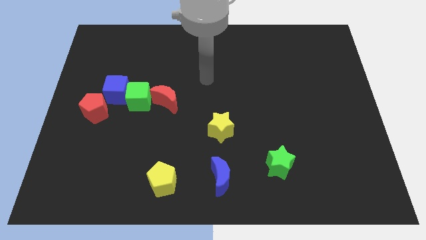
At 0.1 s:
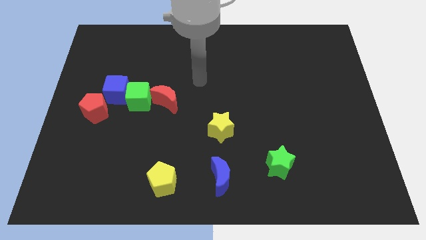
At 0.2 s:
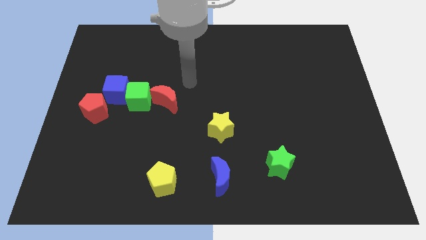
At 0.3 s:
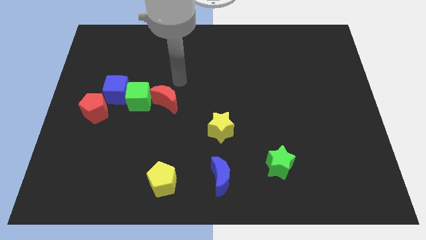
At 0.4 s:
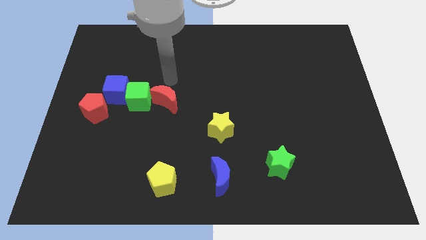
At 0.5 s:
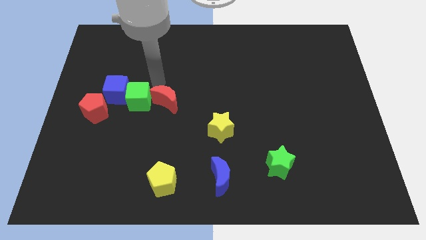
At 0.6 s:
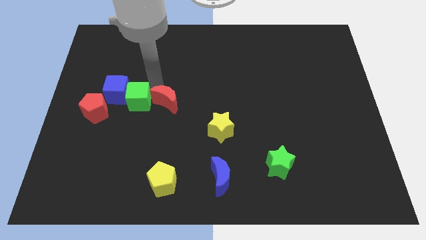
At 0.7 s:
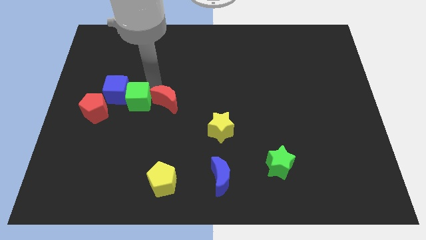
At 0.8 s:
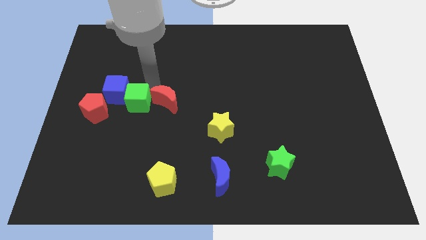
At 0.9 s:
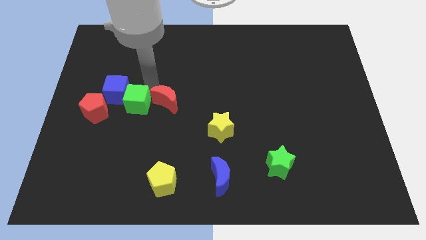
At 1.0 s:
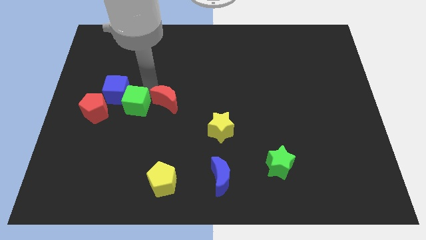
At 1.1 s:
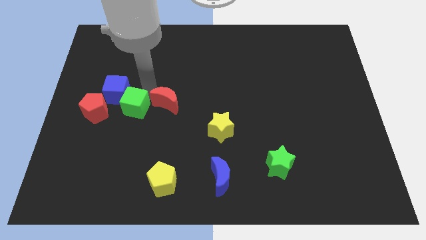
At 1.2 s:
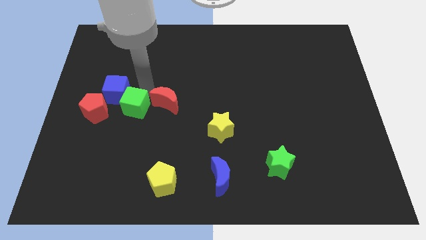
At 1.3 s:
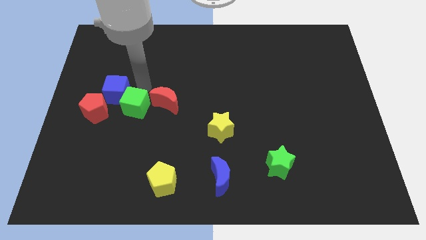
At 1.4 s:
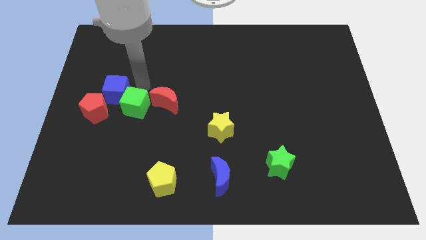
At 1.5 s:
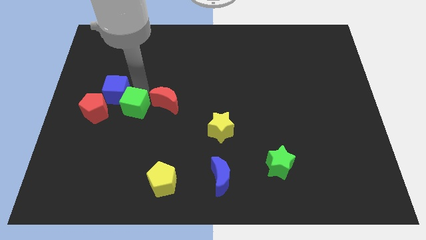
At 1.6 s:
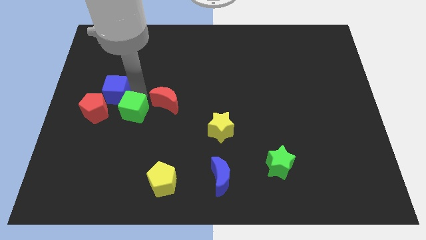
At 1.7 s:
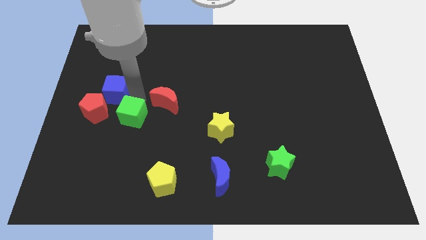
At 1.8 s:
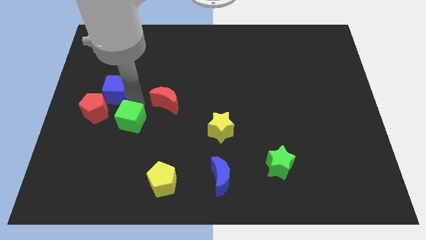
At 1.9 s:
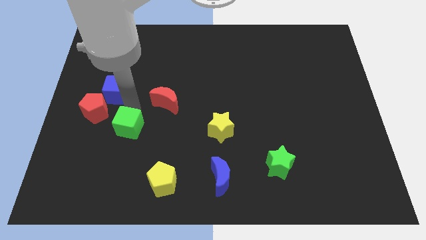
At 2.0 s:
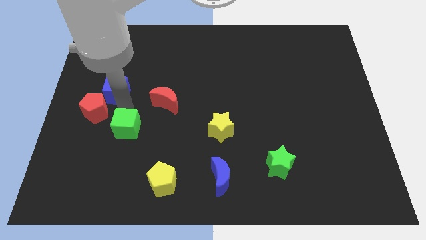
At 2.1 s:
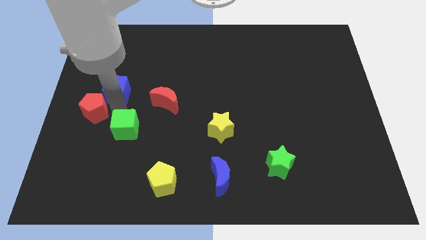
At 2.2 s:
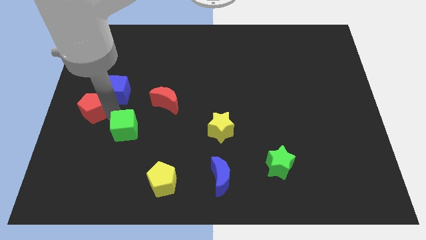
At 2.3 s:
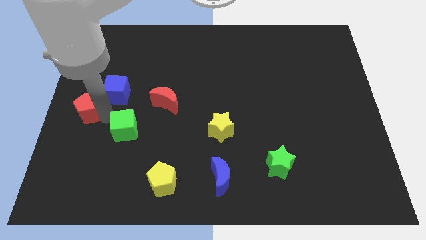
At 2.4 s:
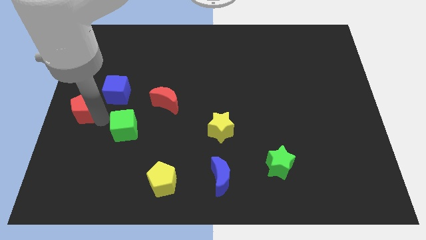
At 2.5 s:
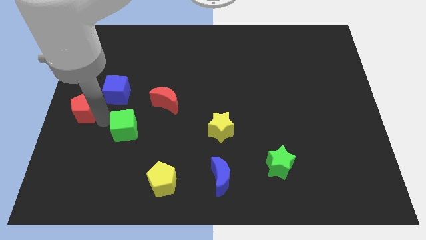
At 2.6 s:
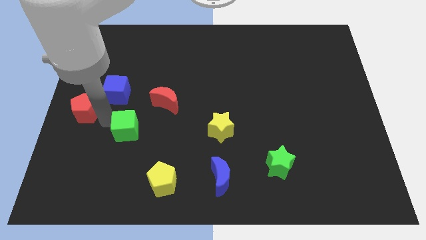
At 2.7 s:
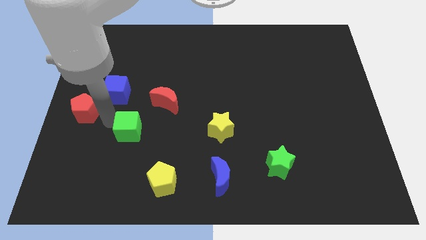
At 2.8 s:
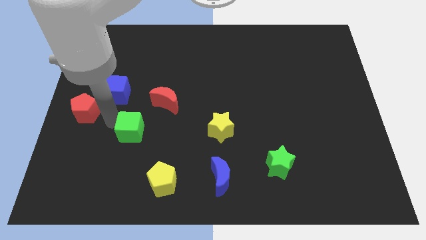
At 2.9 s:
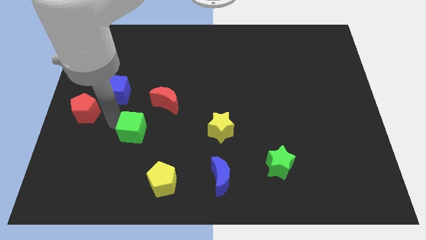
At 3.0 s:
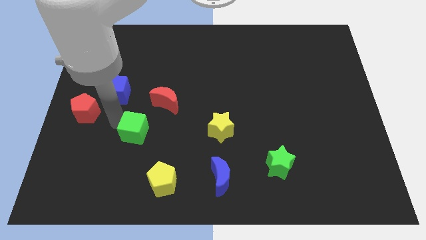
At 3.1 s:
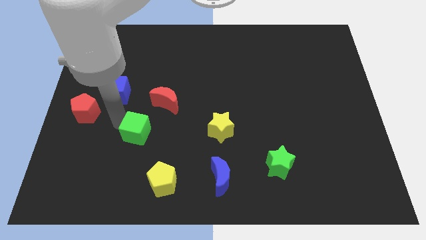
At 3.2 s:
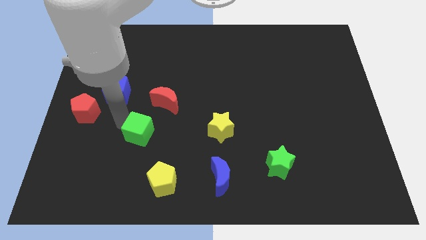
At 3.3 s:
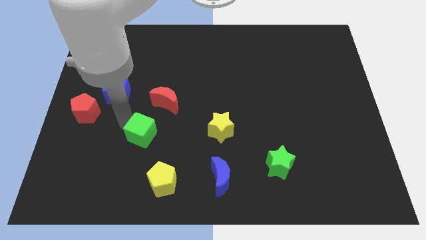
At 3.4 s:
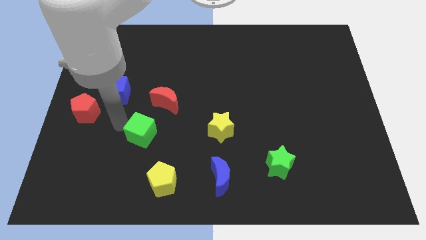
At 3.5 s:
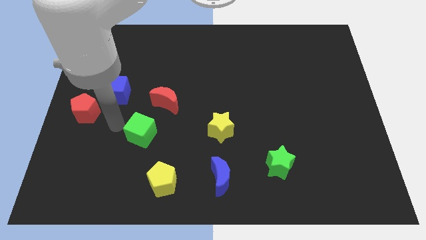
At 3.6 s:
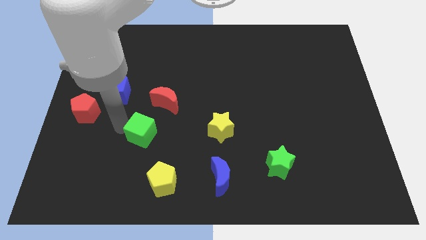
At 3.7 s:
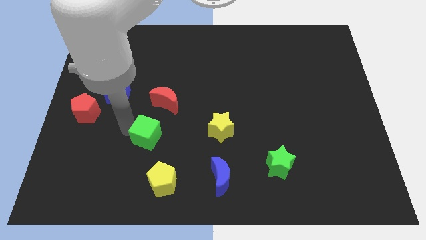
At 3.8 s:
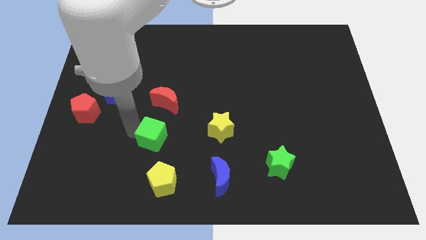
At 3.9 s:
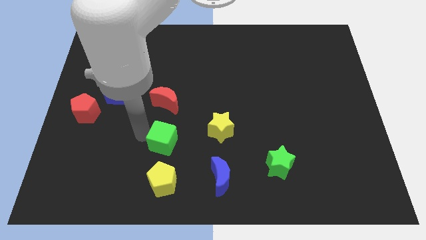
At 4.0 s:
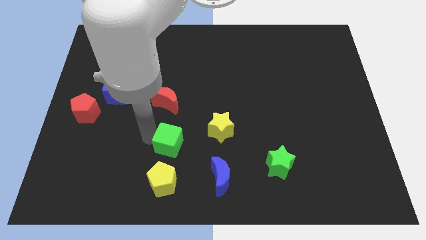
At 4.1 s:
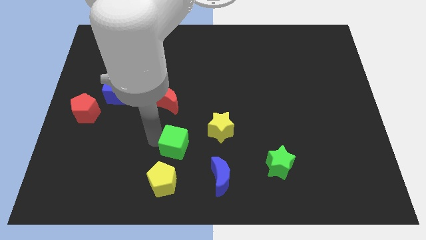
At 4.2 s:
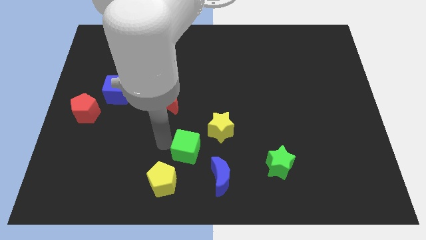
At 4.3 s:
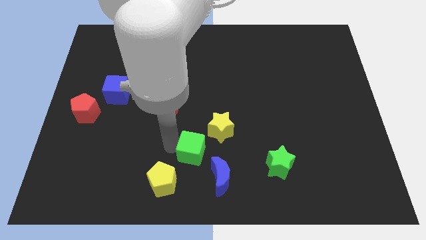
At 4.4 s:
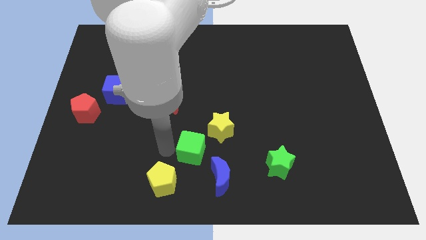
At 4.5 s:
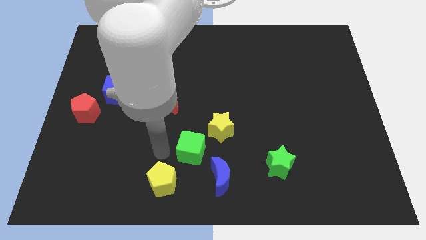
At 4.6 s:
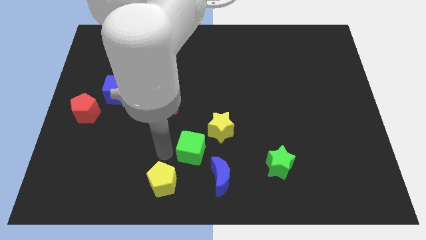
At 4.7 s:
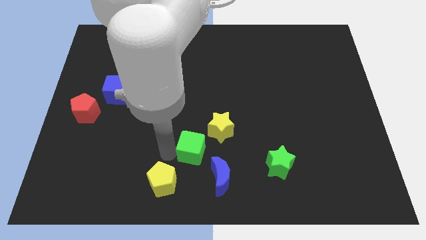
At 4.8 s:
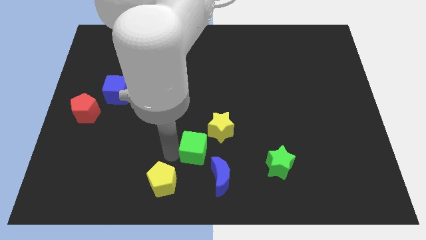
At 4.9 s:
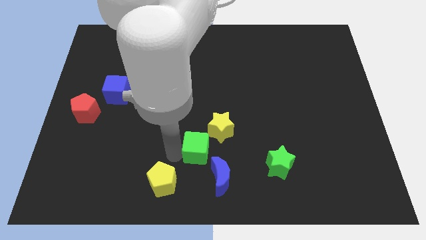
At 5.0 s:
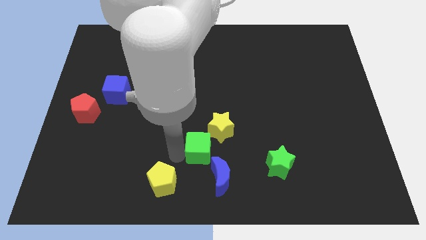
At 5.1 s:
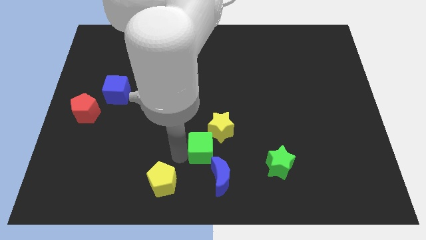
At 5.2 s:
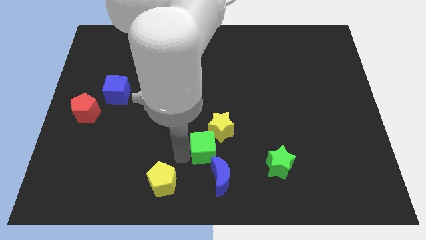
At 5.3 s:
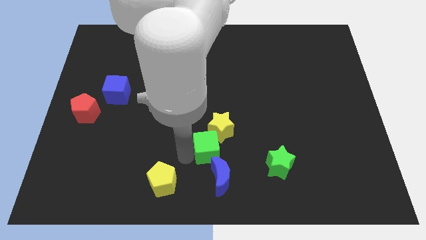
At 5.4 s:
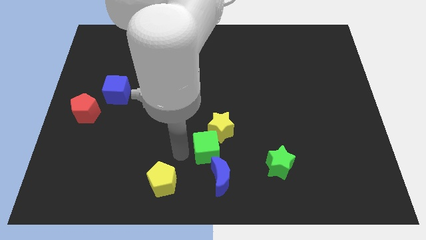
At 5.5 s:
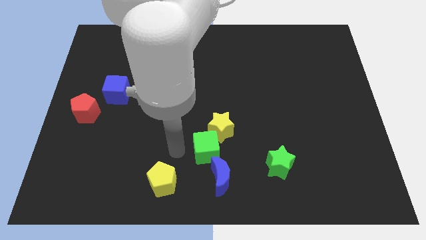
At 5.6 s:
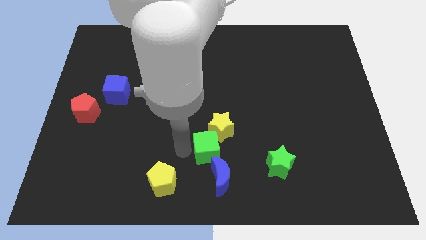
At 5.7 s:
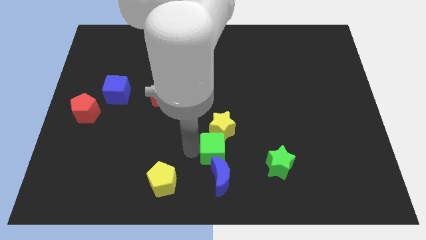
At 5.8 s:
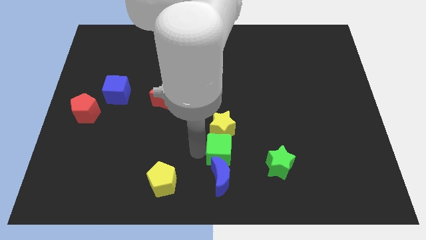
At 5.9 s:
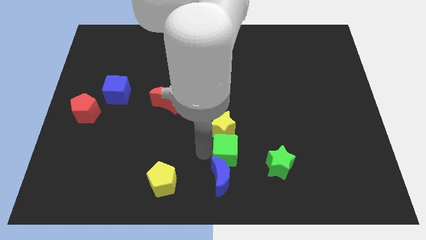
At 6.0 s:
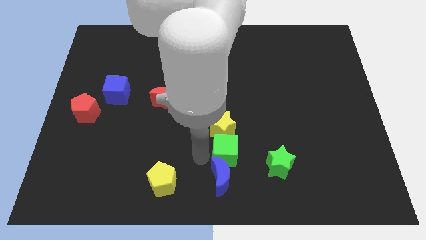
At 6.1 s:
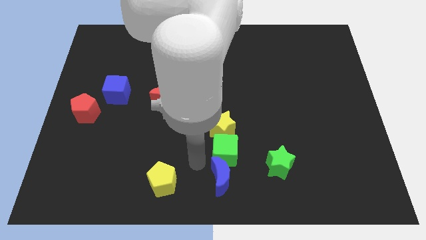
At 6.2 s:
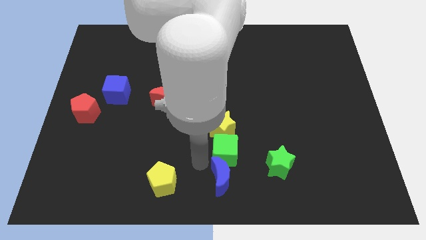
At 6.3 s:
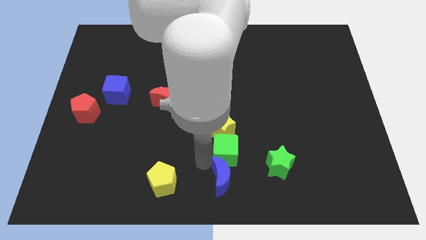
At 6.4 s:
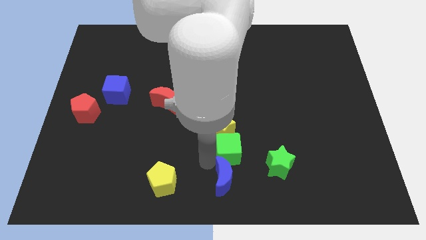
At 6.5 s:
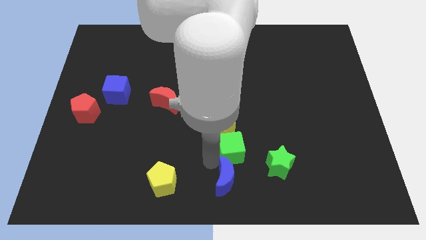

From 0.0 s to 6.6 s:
move the green cube diagonally up and to the left of the green star

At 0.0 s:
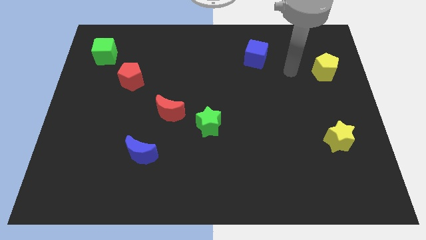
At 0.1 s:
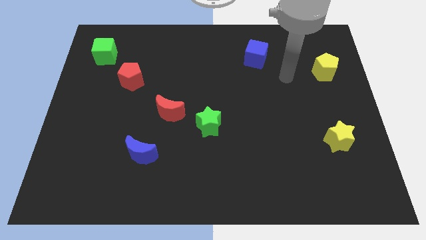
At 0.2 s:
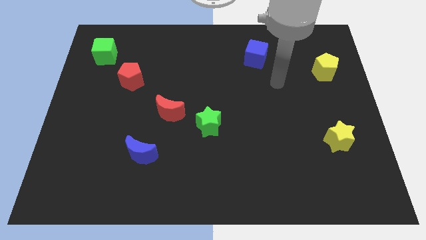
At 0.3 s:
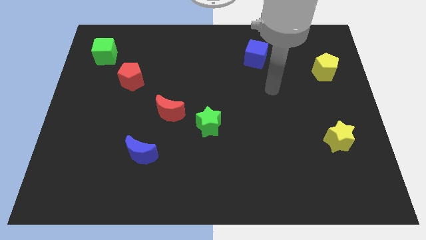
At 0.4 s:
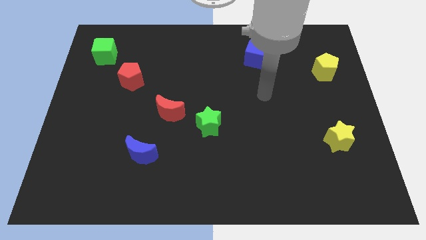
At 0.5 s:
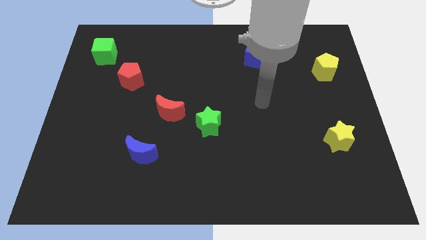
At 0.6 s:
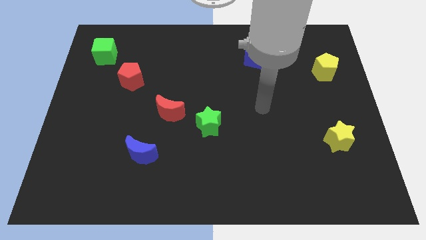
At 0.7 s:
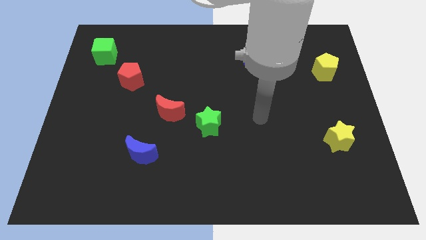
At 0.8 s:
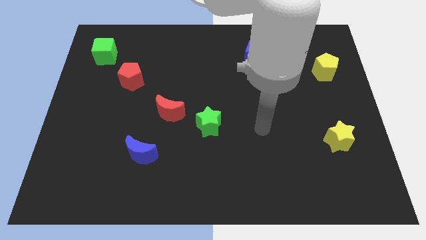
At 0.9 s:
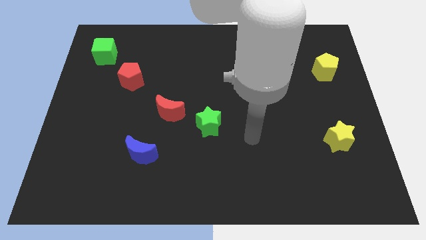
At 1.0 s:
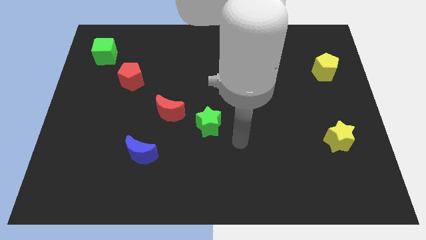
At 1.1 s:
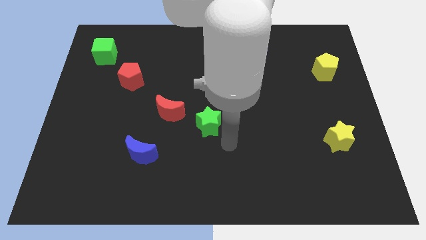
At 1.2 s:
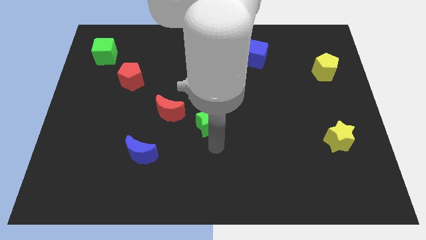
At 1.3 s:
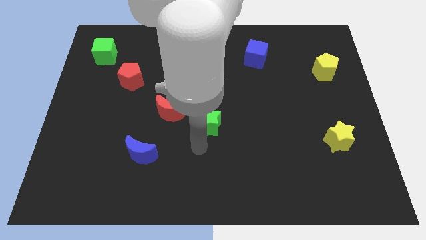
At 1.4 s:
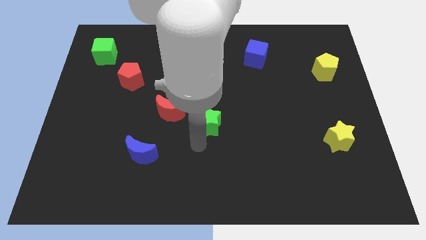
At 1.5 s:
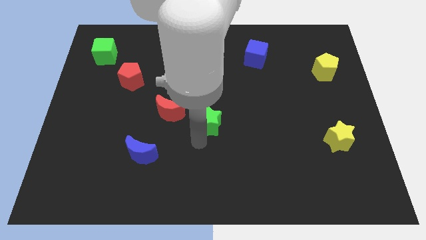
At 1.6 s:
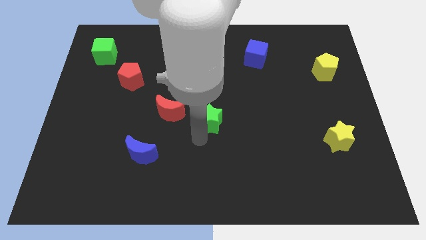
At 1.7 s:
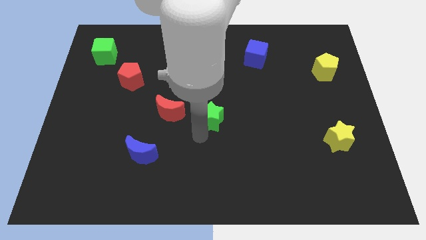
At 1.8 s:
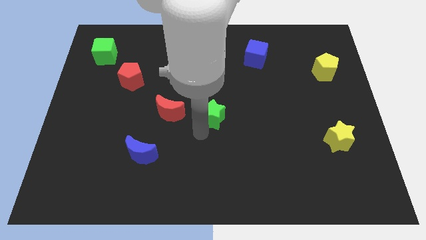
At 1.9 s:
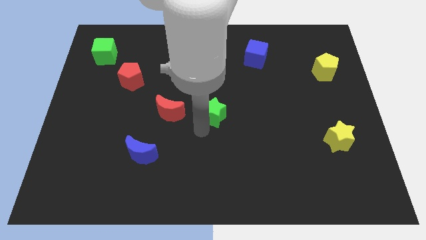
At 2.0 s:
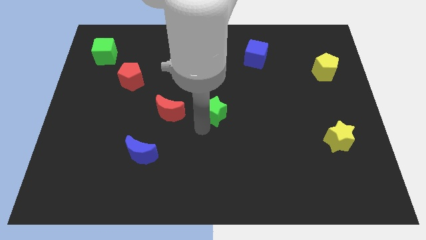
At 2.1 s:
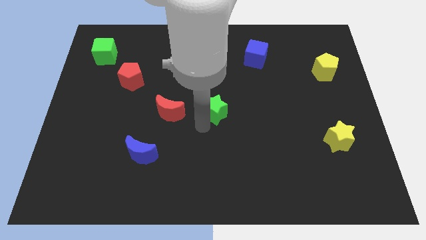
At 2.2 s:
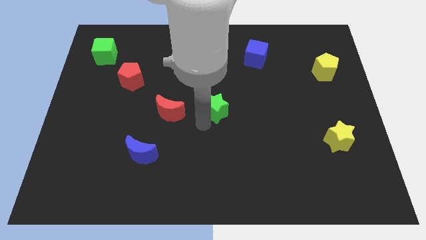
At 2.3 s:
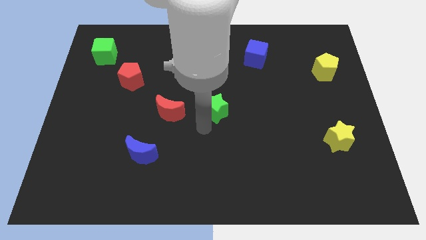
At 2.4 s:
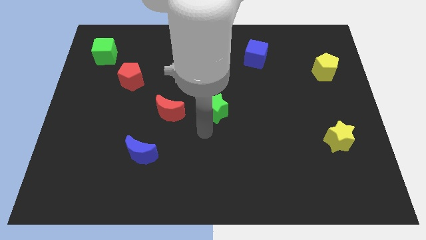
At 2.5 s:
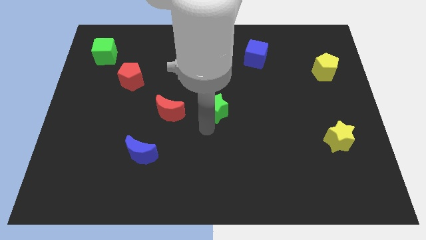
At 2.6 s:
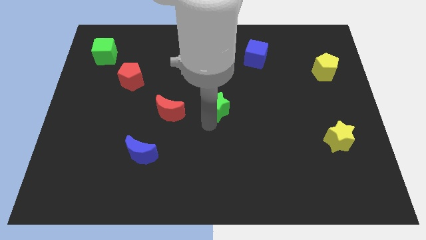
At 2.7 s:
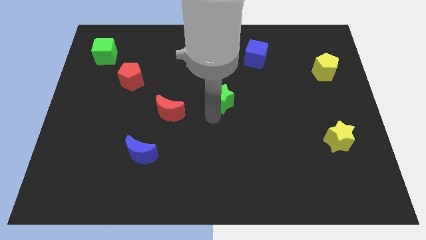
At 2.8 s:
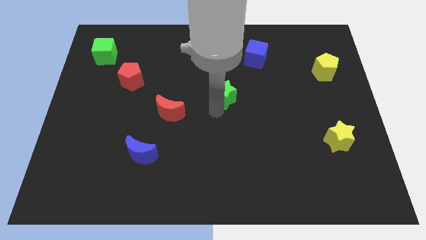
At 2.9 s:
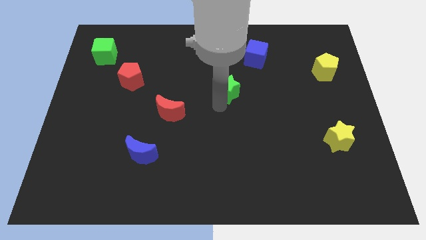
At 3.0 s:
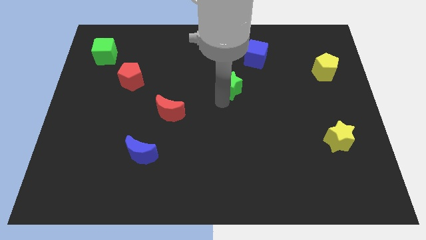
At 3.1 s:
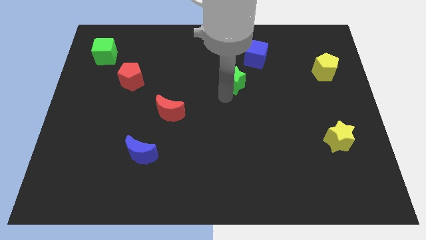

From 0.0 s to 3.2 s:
put the green star diagonally down and to the left of the blue cube
